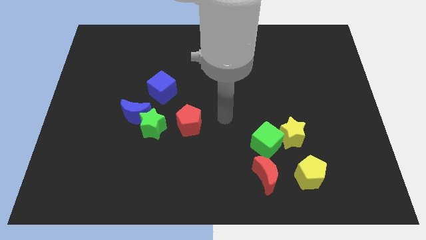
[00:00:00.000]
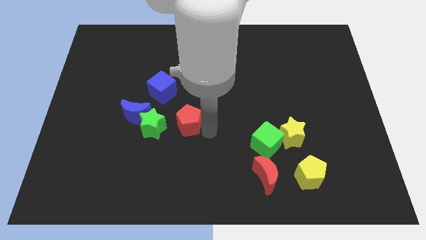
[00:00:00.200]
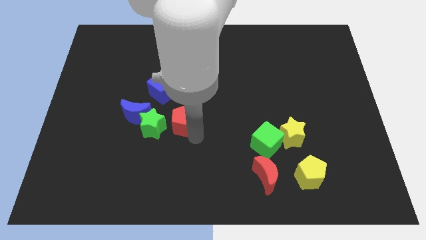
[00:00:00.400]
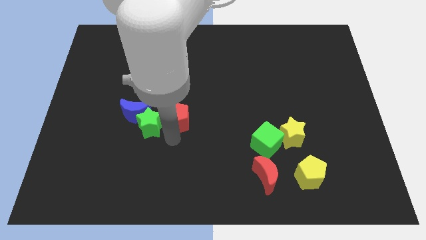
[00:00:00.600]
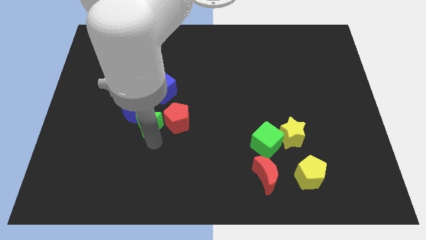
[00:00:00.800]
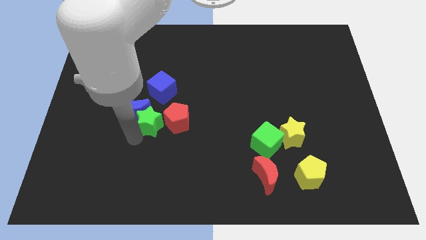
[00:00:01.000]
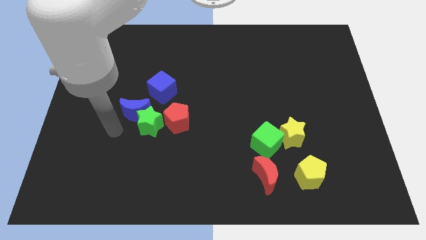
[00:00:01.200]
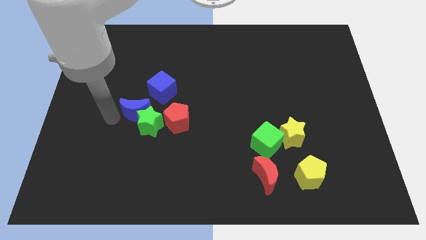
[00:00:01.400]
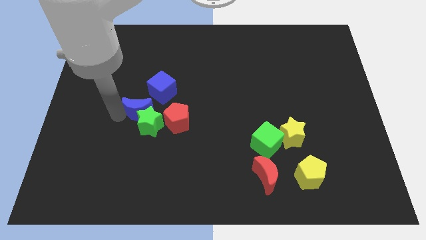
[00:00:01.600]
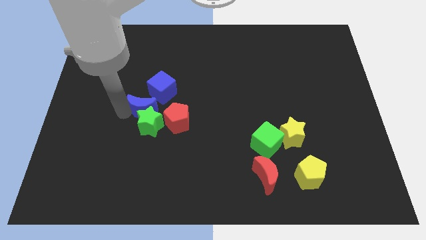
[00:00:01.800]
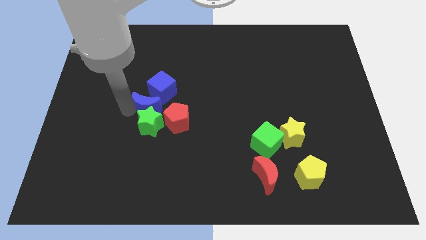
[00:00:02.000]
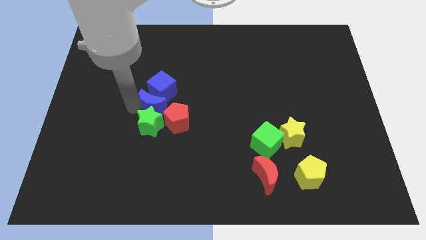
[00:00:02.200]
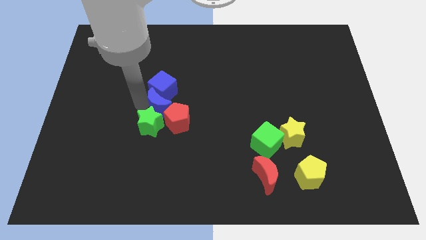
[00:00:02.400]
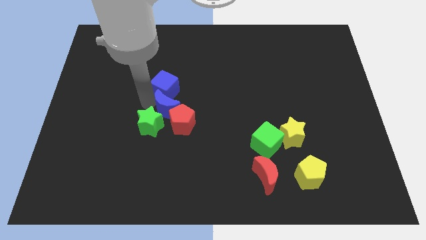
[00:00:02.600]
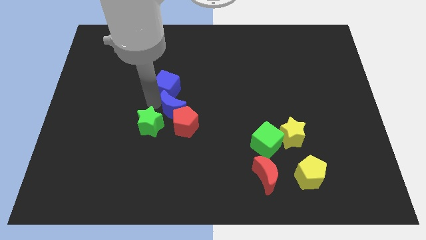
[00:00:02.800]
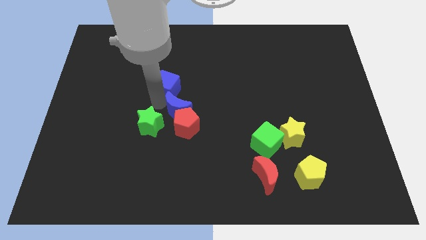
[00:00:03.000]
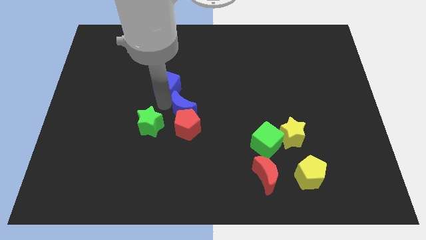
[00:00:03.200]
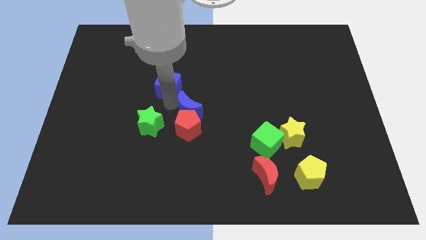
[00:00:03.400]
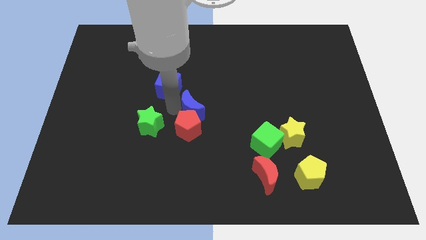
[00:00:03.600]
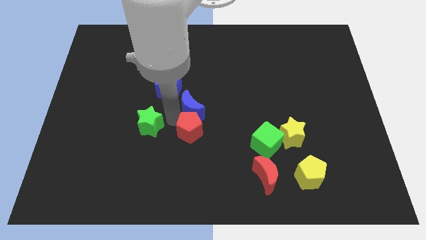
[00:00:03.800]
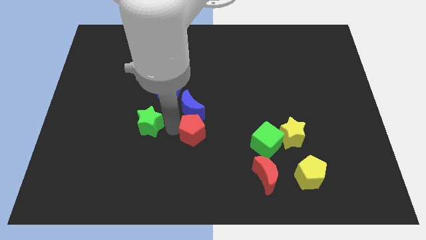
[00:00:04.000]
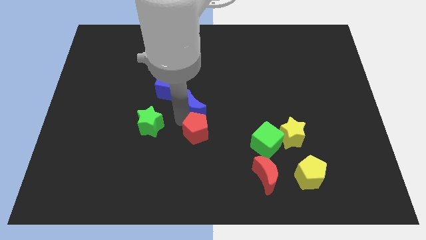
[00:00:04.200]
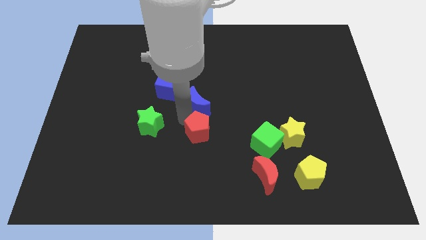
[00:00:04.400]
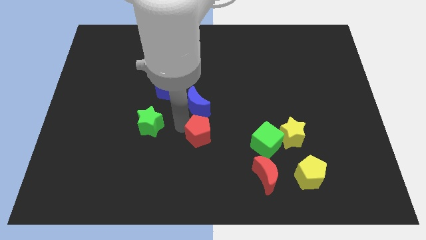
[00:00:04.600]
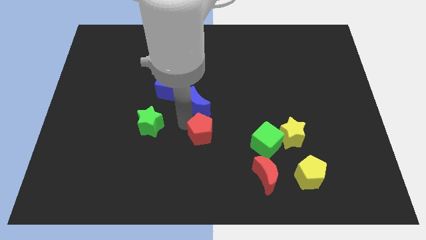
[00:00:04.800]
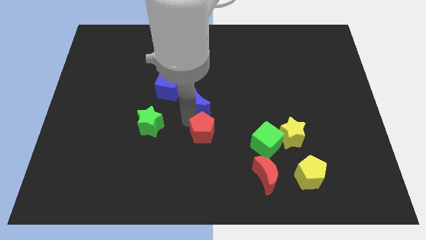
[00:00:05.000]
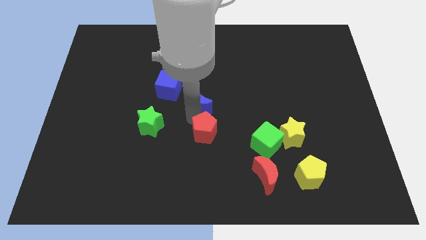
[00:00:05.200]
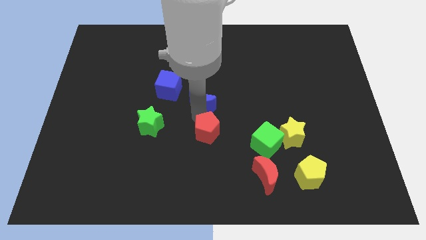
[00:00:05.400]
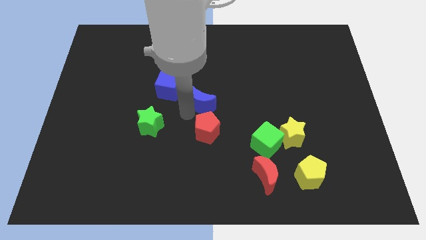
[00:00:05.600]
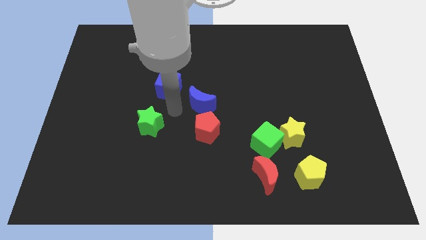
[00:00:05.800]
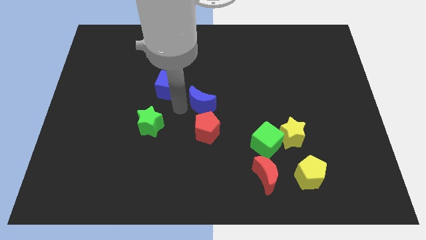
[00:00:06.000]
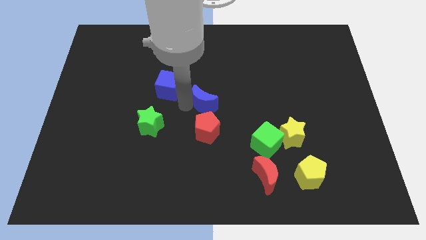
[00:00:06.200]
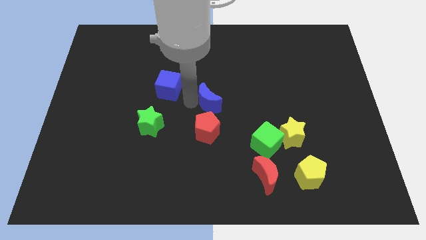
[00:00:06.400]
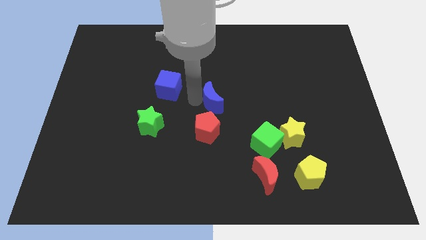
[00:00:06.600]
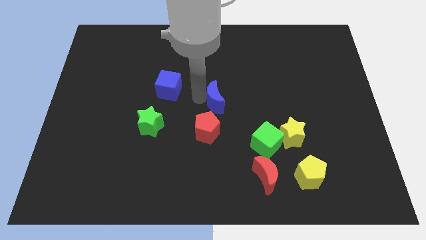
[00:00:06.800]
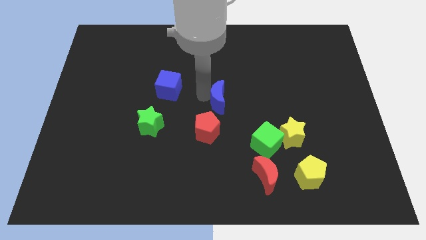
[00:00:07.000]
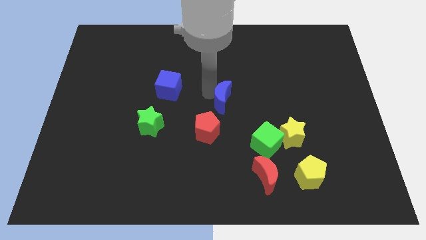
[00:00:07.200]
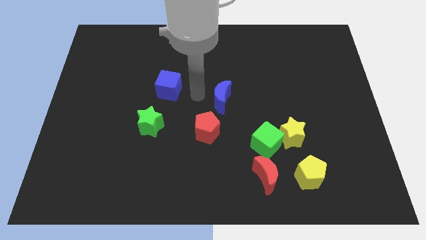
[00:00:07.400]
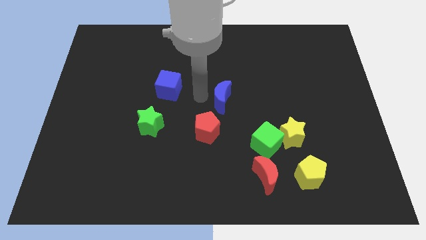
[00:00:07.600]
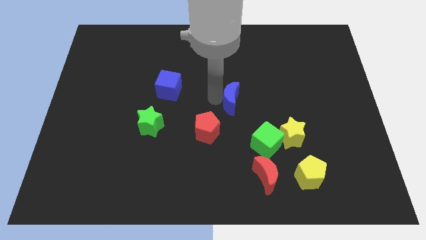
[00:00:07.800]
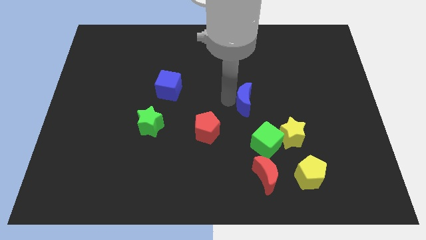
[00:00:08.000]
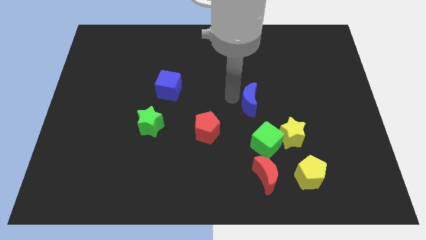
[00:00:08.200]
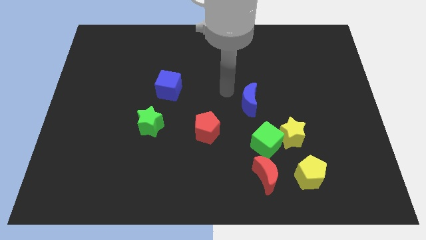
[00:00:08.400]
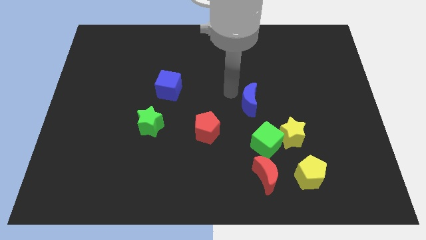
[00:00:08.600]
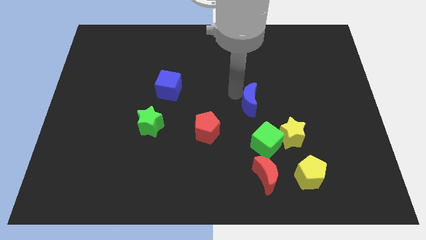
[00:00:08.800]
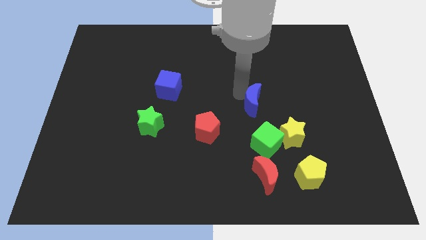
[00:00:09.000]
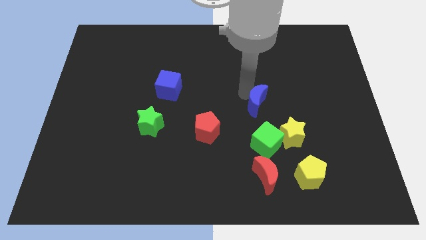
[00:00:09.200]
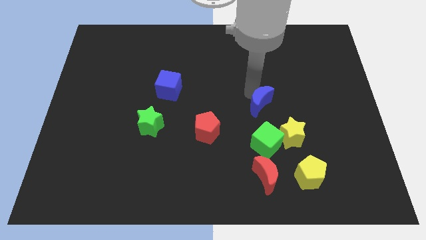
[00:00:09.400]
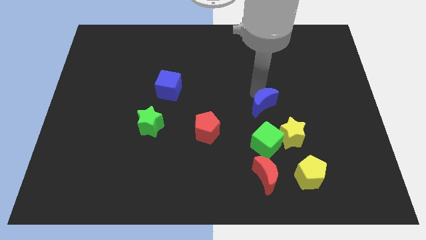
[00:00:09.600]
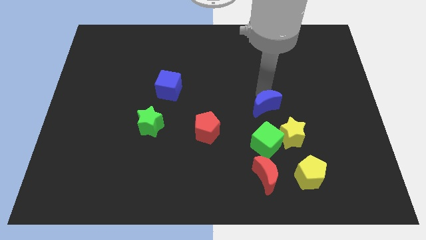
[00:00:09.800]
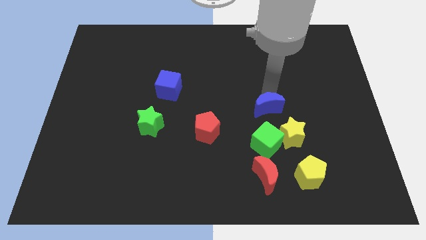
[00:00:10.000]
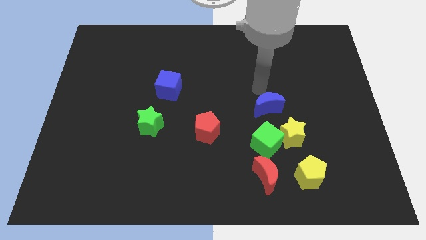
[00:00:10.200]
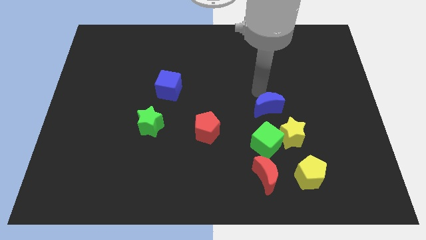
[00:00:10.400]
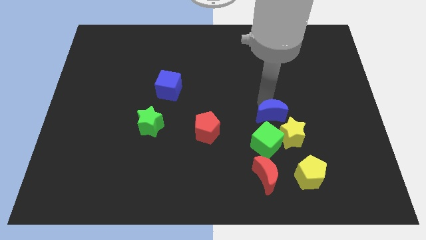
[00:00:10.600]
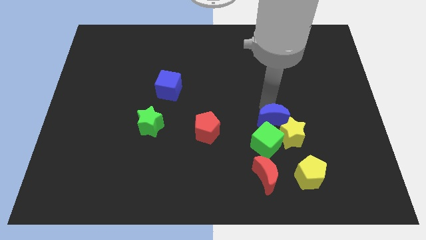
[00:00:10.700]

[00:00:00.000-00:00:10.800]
move the blue moon towards the yellow star

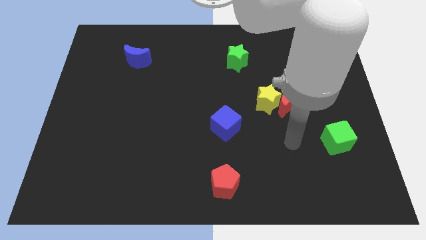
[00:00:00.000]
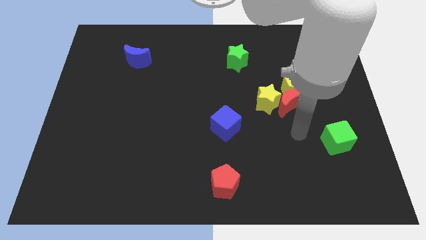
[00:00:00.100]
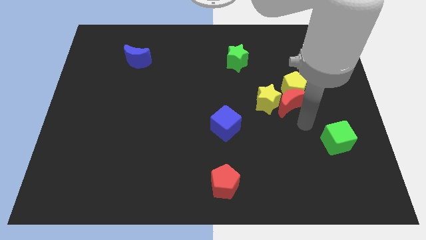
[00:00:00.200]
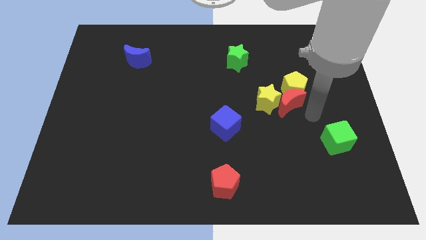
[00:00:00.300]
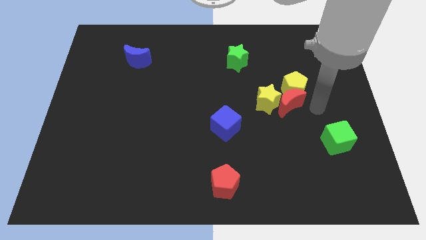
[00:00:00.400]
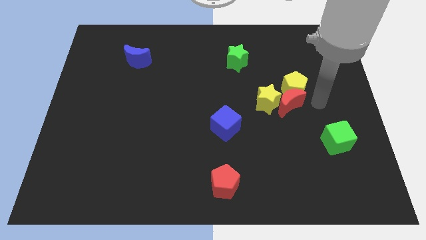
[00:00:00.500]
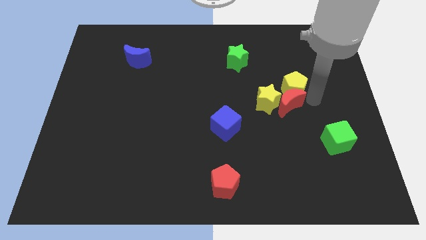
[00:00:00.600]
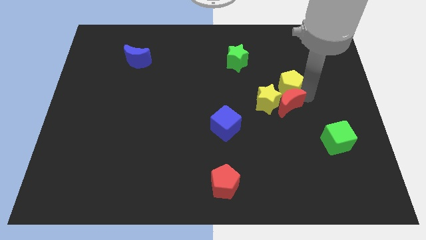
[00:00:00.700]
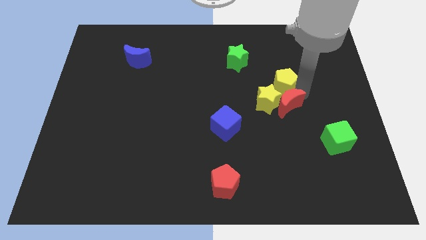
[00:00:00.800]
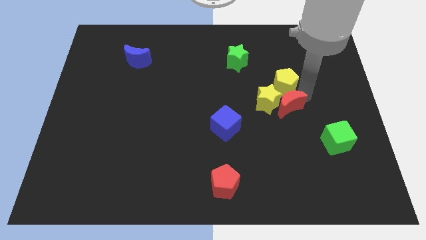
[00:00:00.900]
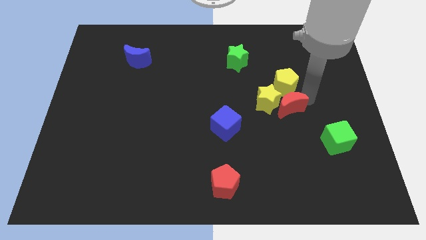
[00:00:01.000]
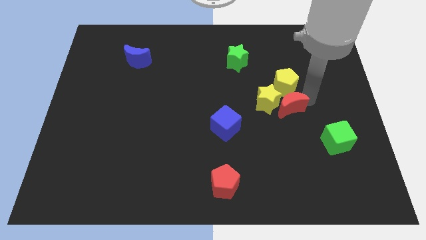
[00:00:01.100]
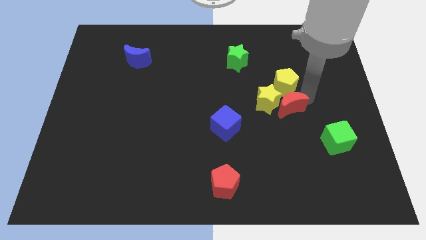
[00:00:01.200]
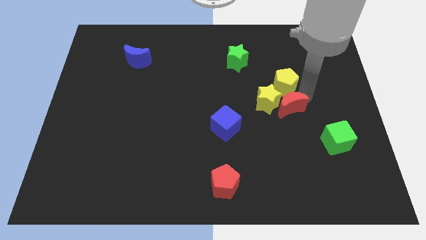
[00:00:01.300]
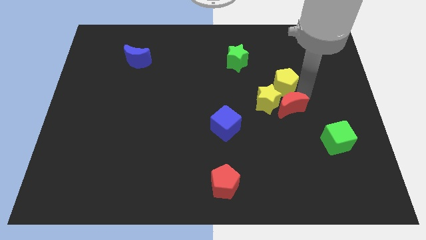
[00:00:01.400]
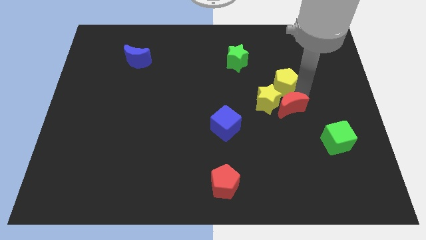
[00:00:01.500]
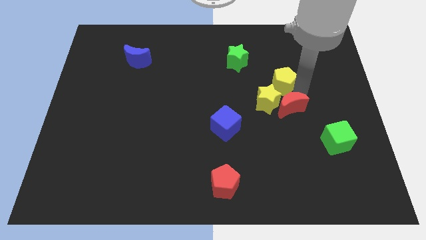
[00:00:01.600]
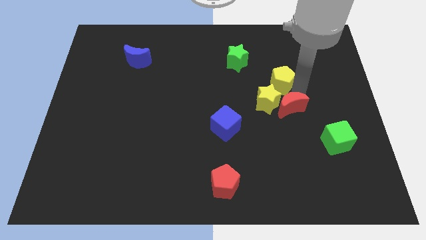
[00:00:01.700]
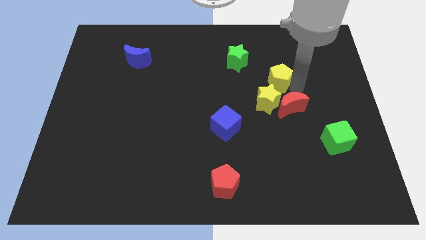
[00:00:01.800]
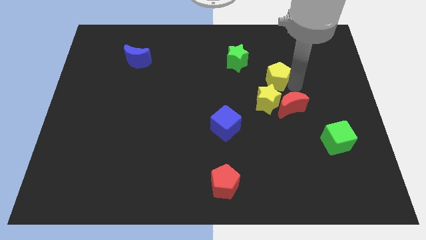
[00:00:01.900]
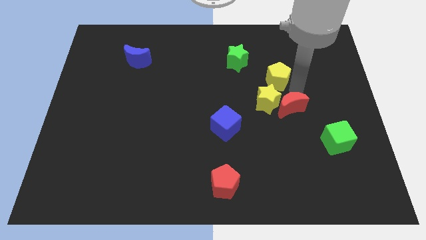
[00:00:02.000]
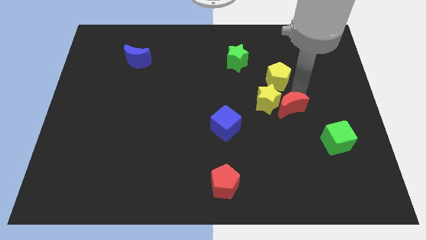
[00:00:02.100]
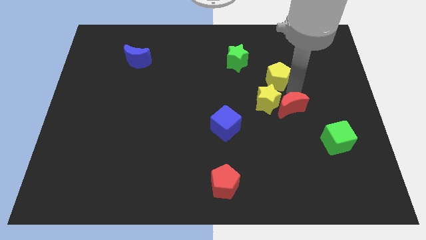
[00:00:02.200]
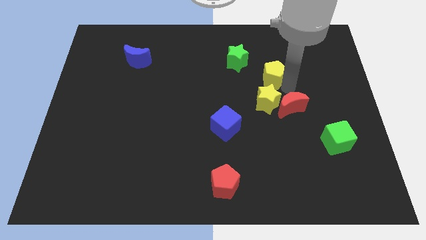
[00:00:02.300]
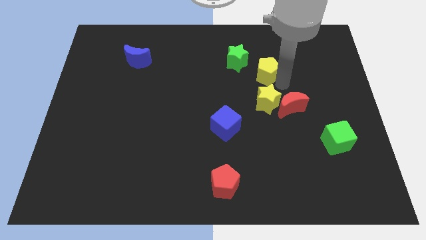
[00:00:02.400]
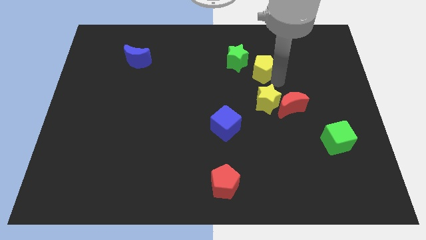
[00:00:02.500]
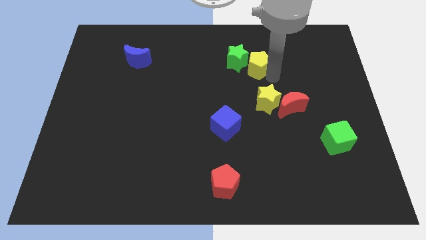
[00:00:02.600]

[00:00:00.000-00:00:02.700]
slide the yellow pentagon to the green star
